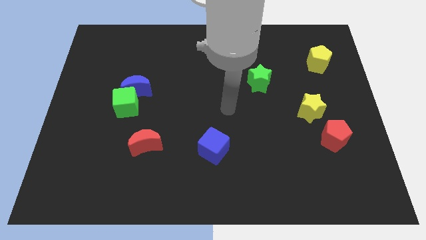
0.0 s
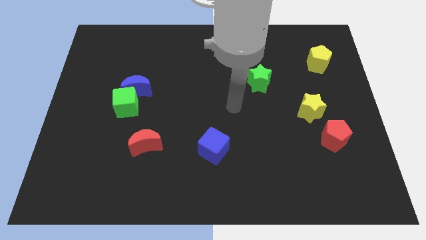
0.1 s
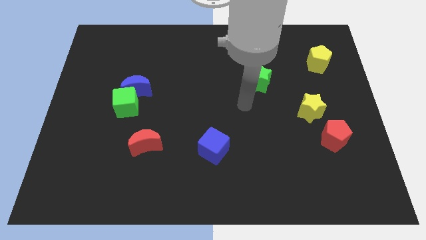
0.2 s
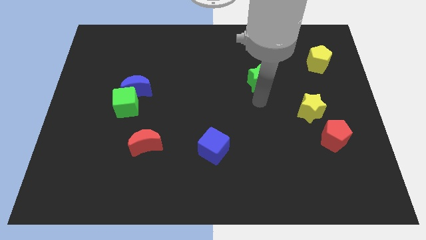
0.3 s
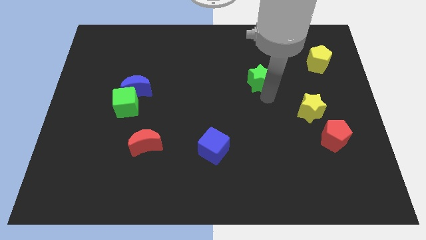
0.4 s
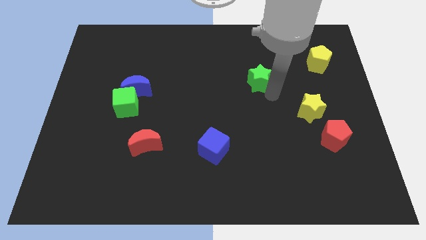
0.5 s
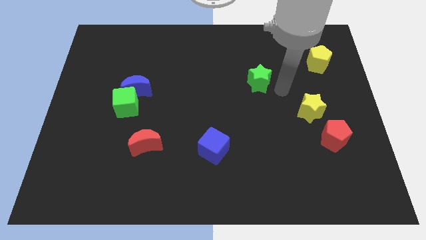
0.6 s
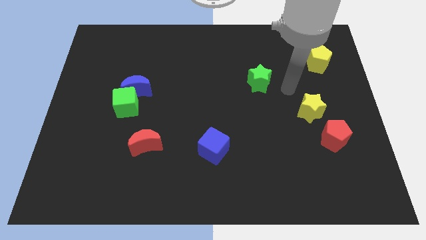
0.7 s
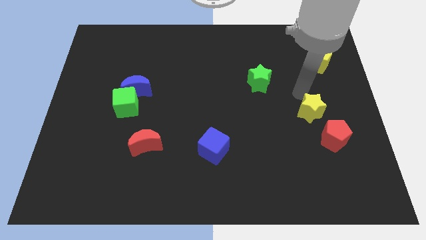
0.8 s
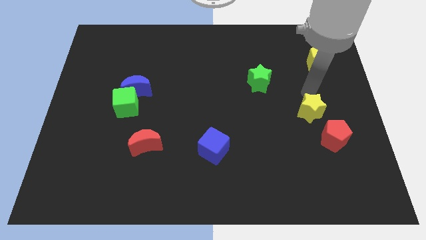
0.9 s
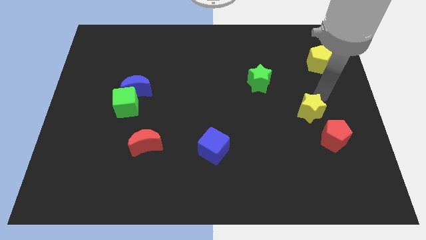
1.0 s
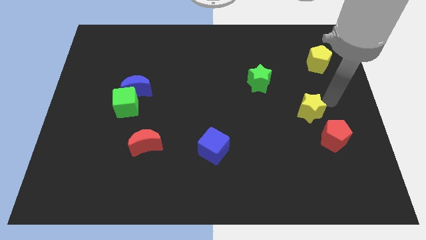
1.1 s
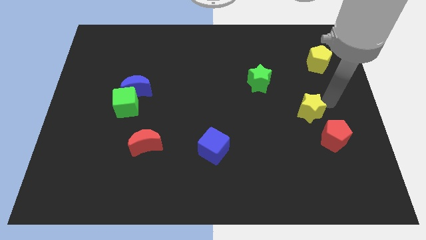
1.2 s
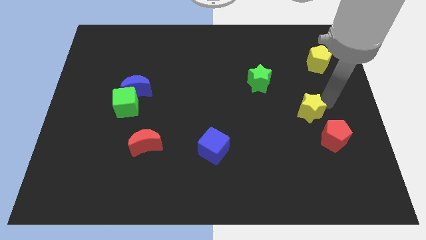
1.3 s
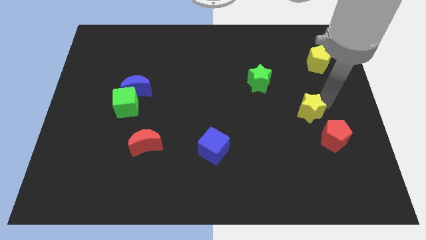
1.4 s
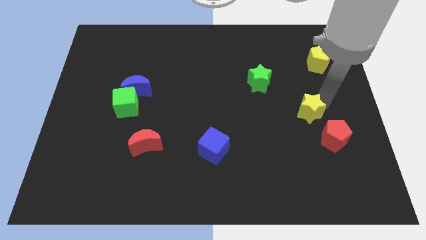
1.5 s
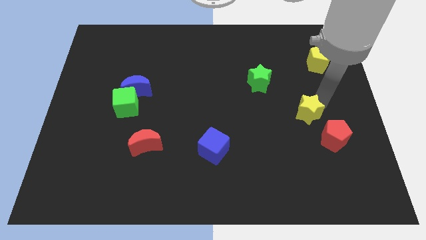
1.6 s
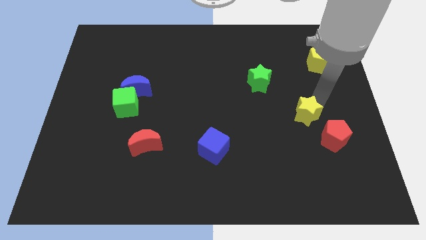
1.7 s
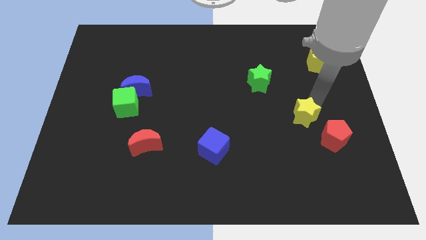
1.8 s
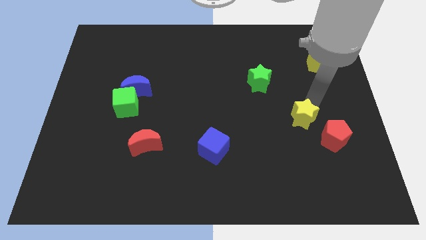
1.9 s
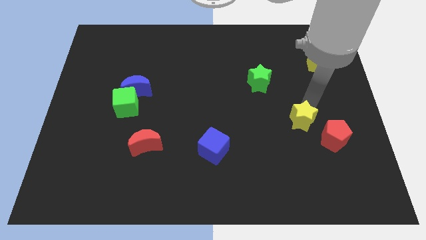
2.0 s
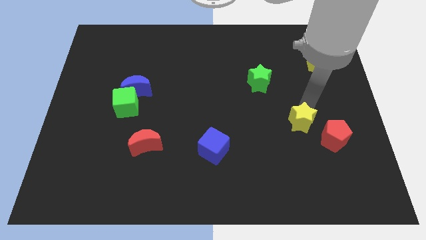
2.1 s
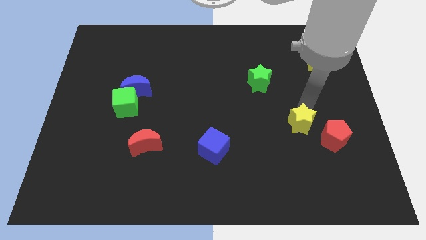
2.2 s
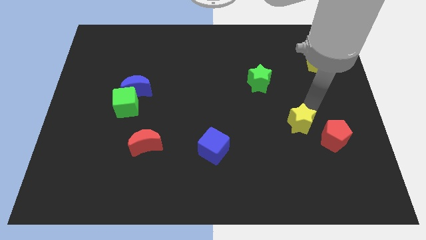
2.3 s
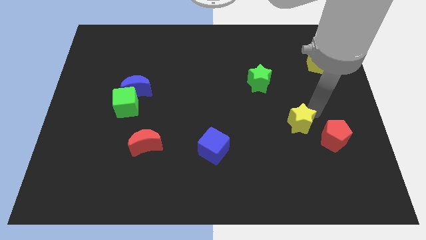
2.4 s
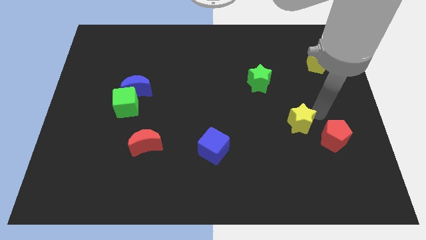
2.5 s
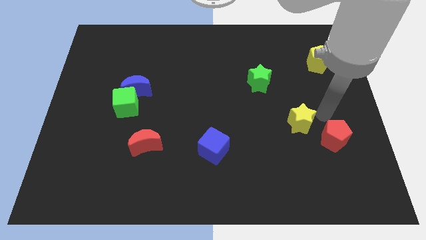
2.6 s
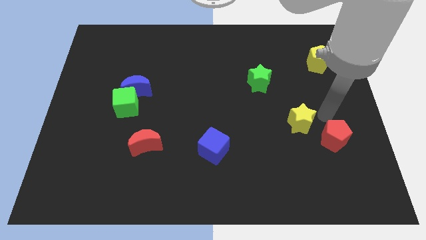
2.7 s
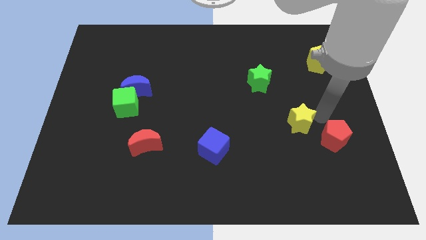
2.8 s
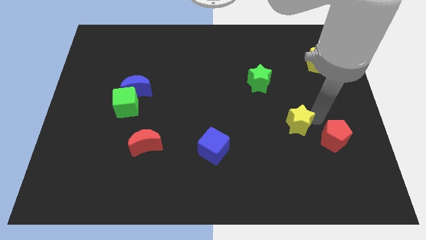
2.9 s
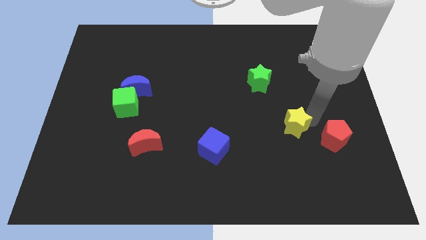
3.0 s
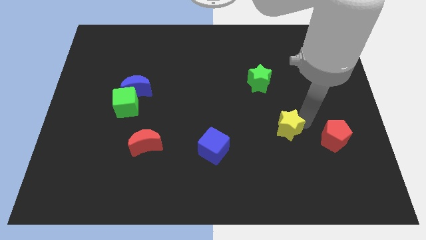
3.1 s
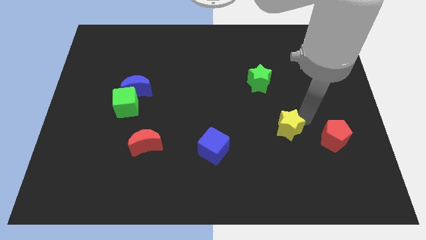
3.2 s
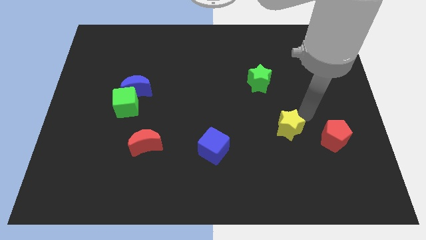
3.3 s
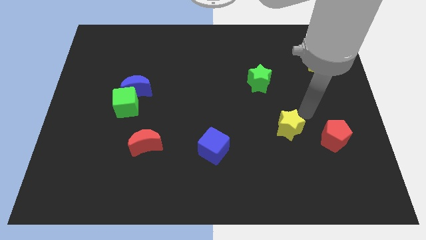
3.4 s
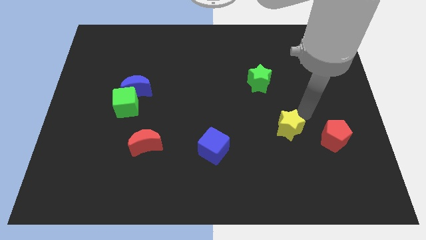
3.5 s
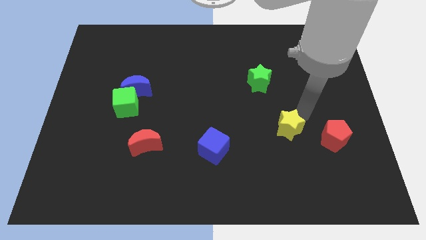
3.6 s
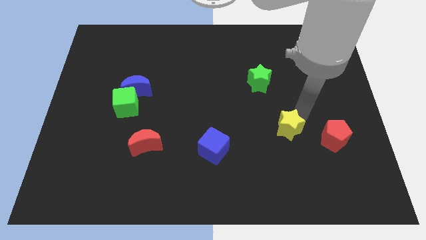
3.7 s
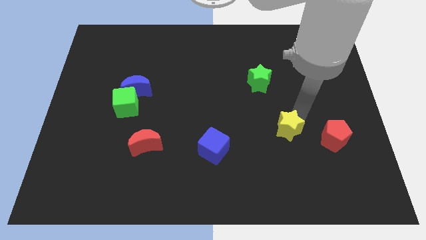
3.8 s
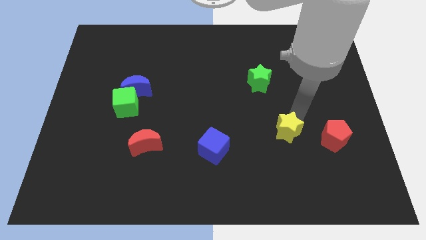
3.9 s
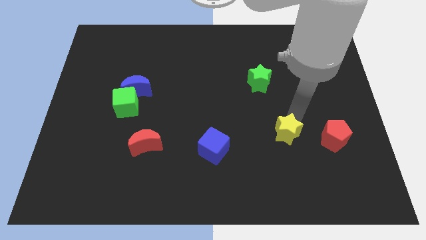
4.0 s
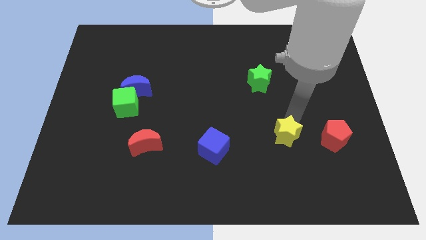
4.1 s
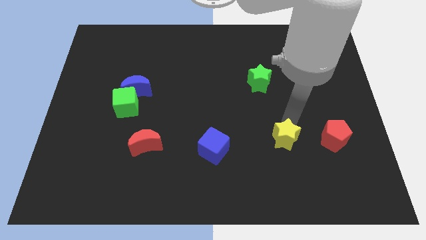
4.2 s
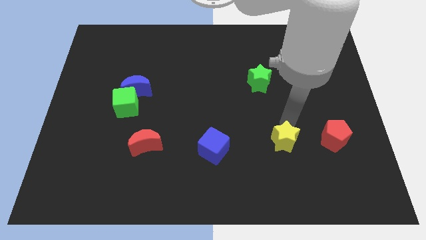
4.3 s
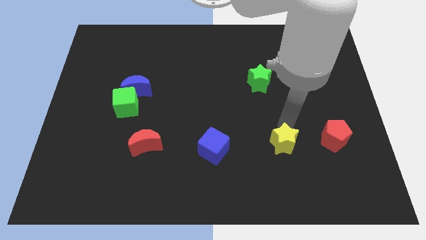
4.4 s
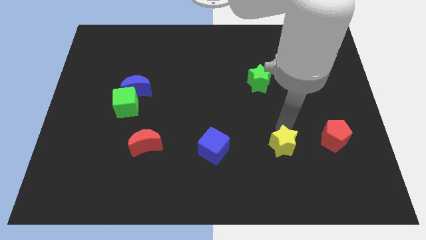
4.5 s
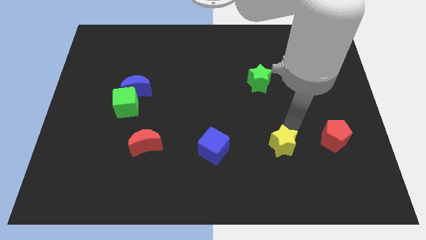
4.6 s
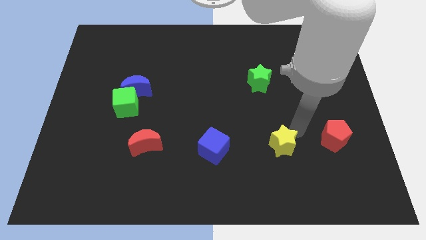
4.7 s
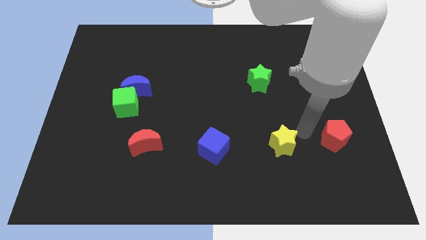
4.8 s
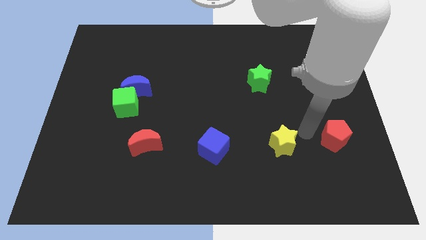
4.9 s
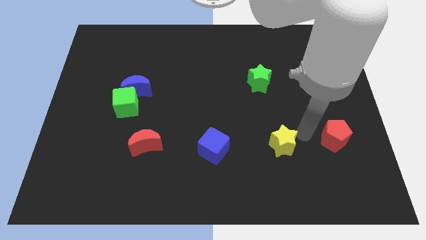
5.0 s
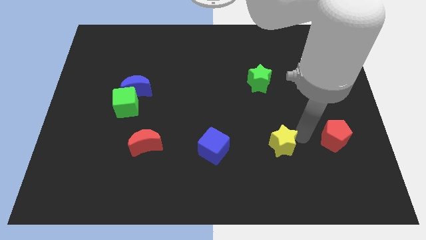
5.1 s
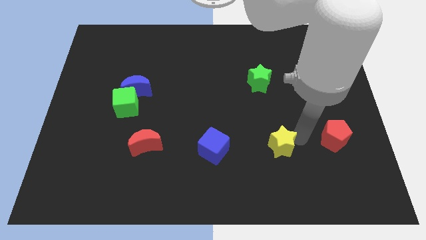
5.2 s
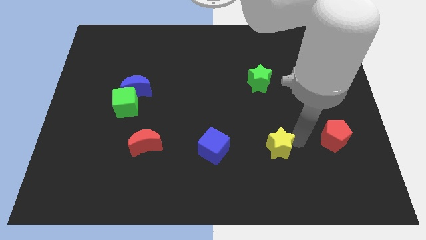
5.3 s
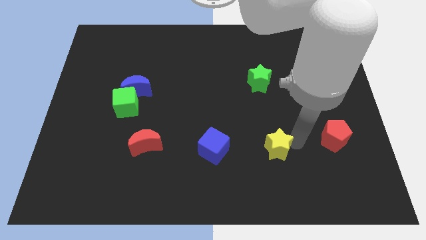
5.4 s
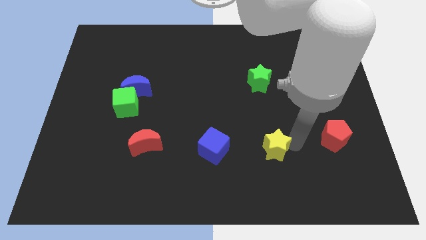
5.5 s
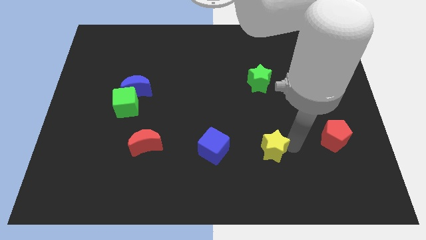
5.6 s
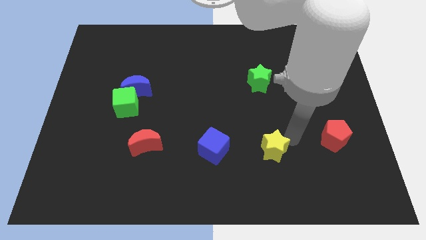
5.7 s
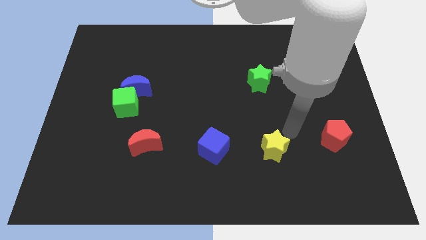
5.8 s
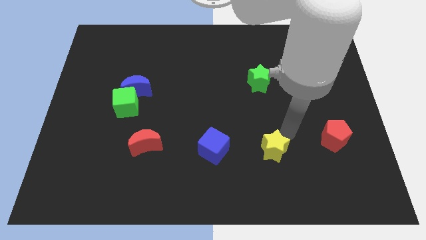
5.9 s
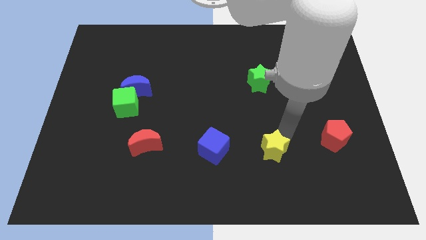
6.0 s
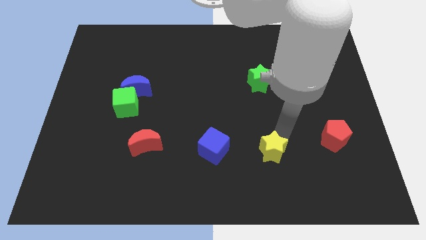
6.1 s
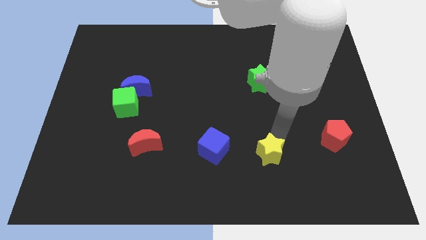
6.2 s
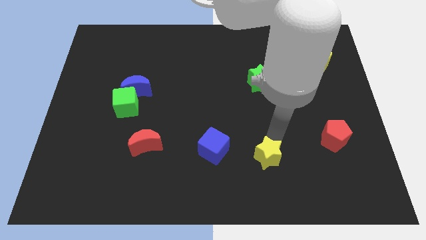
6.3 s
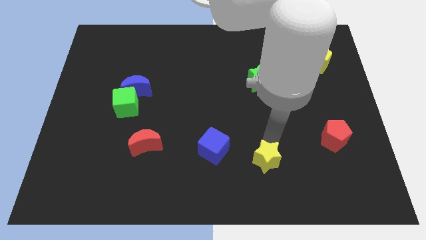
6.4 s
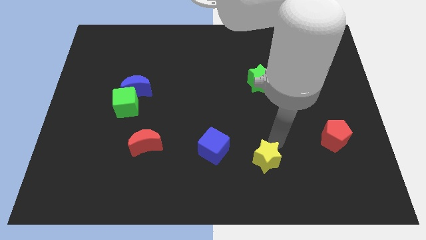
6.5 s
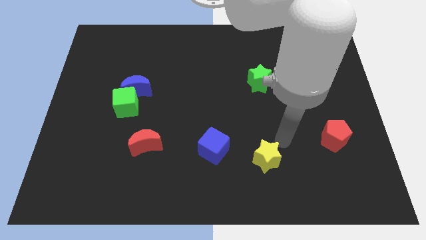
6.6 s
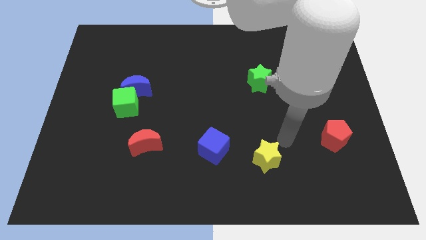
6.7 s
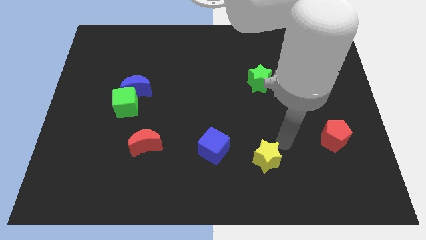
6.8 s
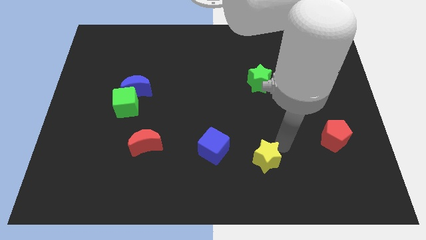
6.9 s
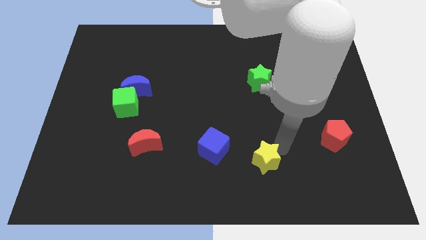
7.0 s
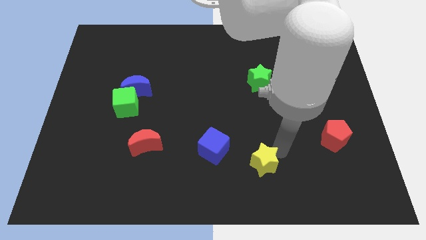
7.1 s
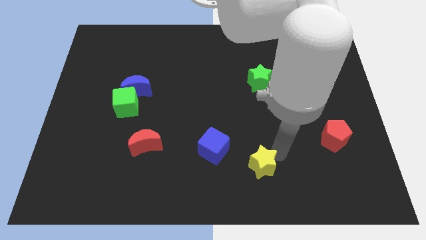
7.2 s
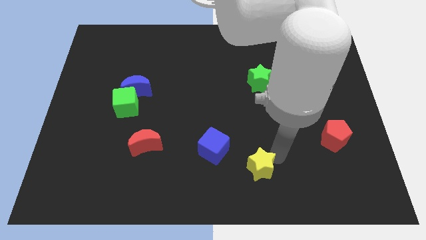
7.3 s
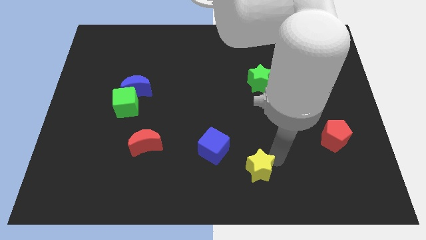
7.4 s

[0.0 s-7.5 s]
move the yellow star to the bottom side
